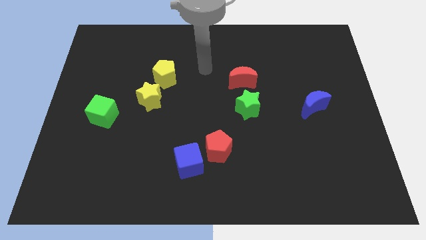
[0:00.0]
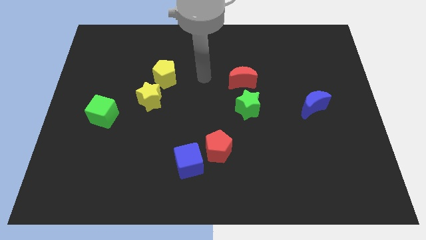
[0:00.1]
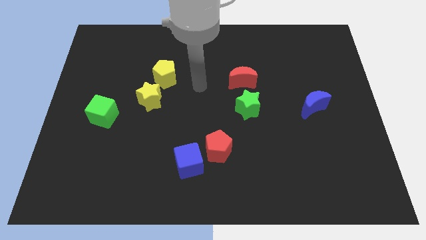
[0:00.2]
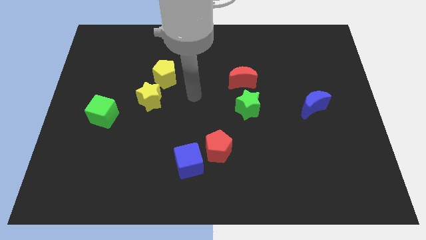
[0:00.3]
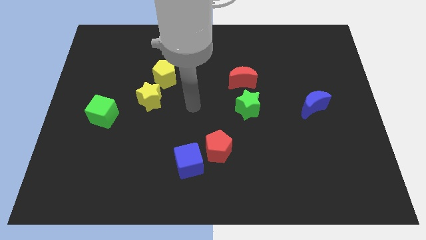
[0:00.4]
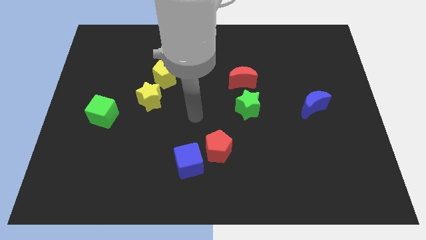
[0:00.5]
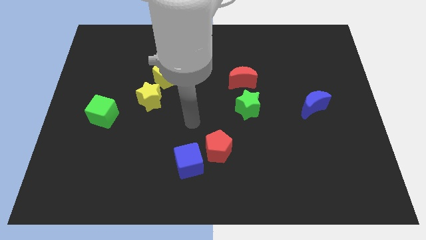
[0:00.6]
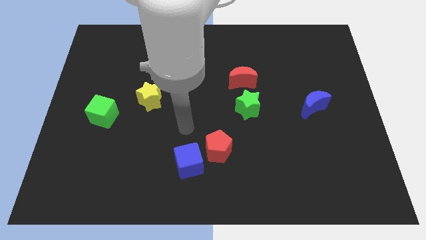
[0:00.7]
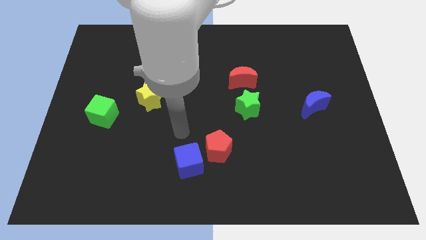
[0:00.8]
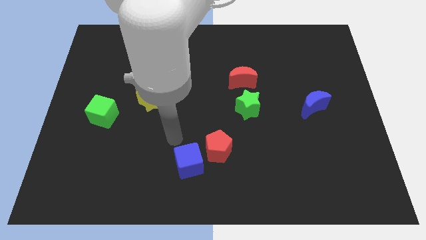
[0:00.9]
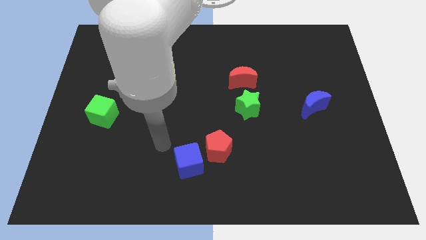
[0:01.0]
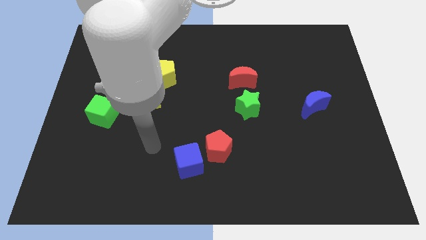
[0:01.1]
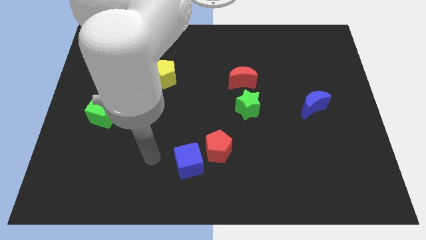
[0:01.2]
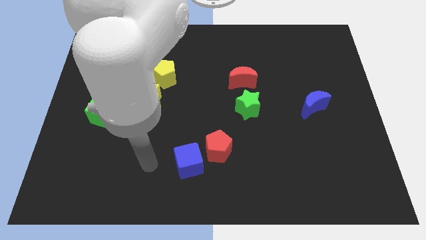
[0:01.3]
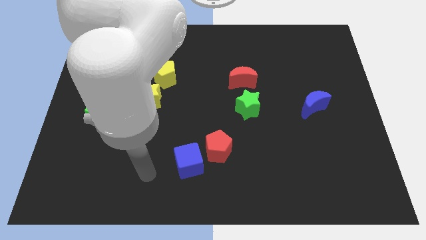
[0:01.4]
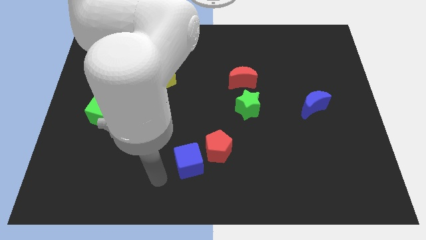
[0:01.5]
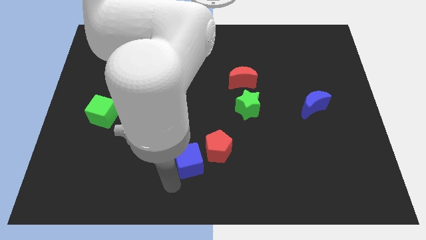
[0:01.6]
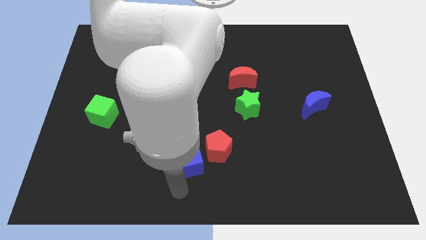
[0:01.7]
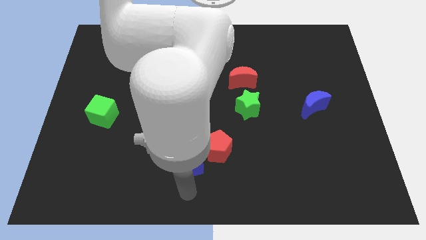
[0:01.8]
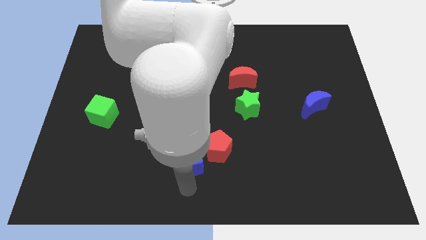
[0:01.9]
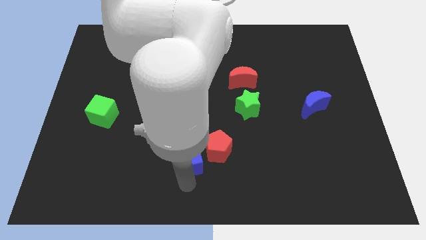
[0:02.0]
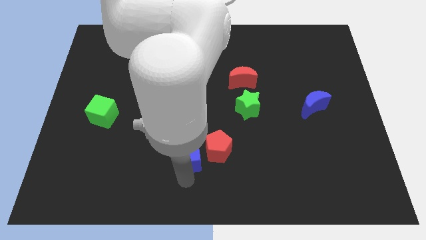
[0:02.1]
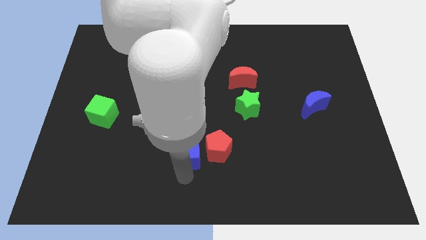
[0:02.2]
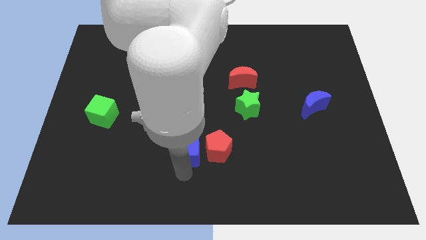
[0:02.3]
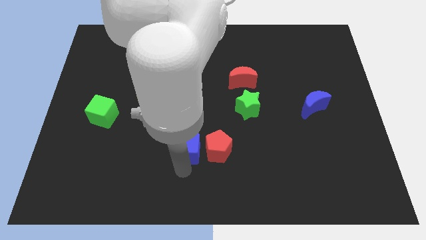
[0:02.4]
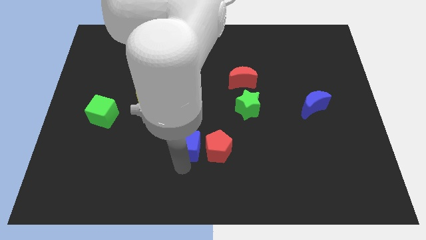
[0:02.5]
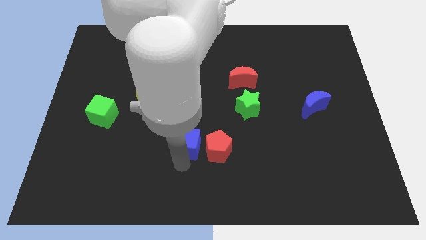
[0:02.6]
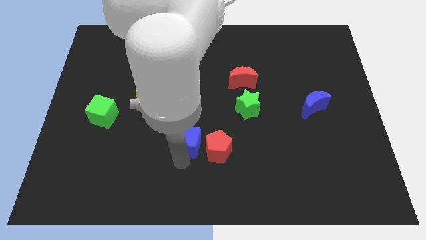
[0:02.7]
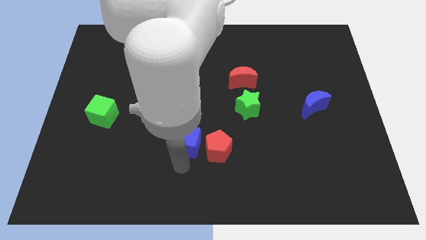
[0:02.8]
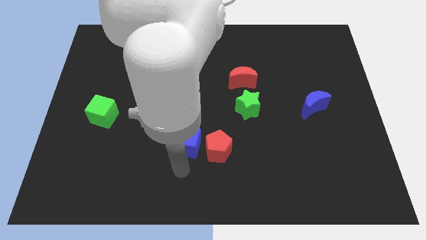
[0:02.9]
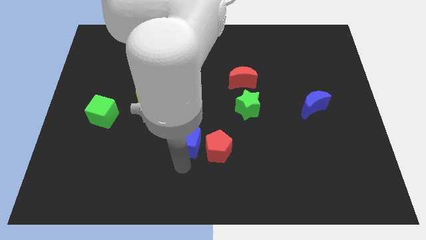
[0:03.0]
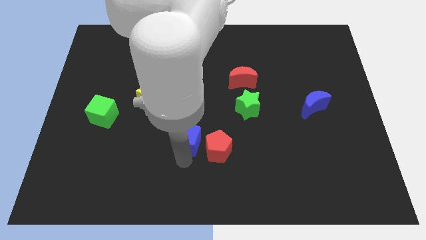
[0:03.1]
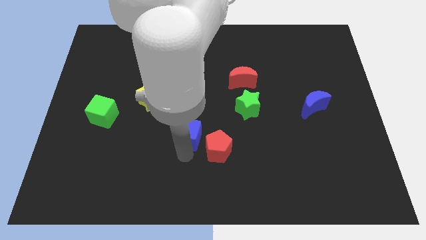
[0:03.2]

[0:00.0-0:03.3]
slightly slide the blue cube up

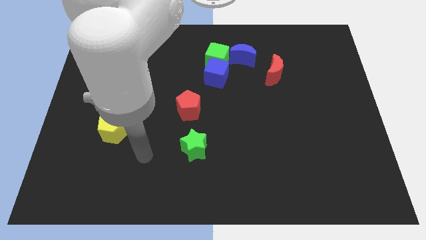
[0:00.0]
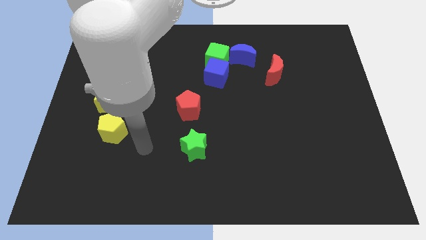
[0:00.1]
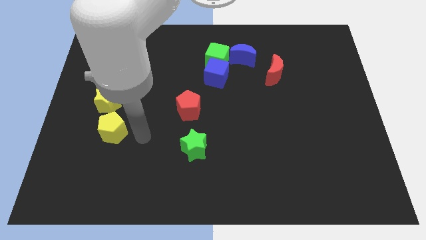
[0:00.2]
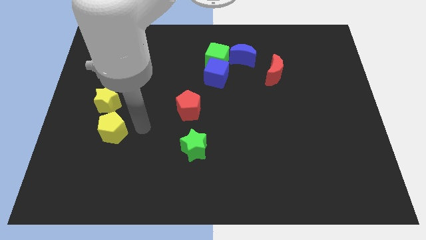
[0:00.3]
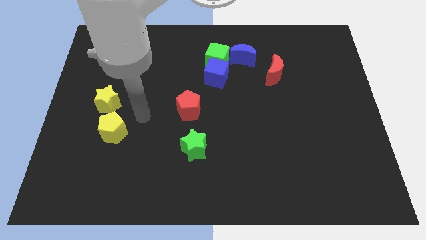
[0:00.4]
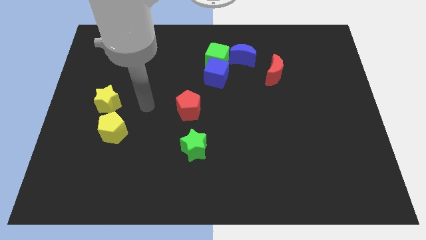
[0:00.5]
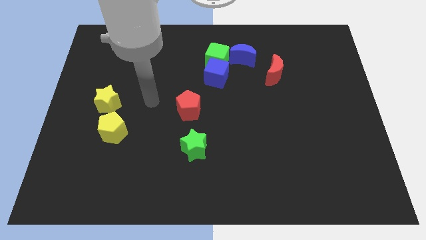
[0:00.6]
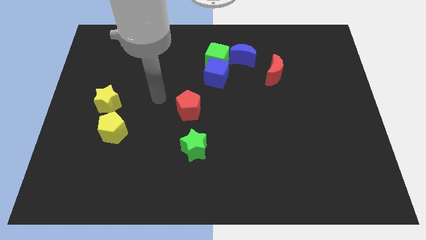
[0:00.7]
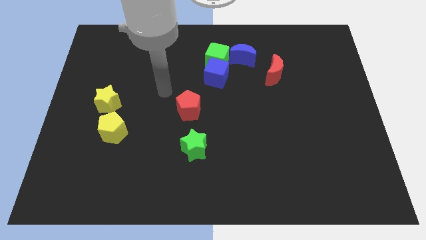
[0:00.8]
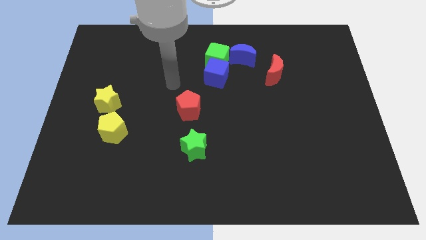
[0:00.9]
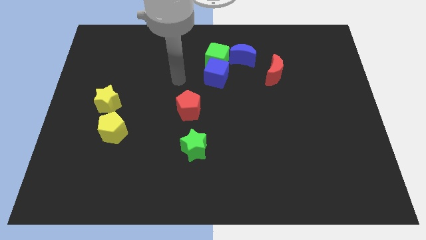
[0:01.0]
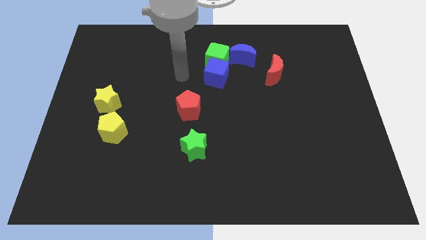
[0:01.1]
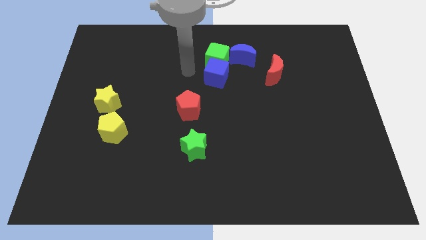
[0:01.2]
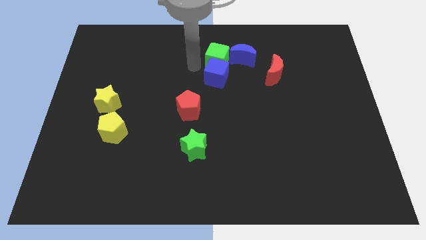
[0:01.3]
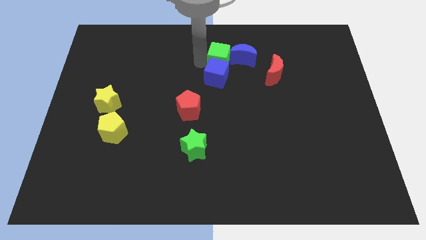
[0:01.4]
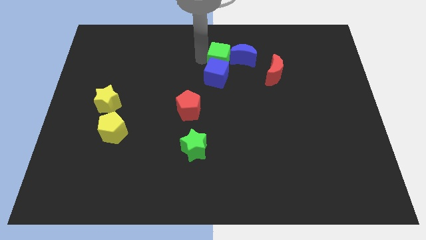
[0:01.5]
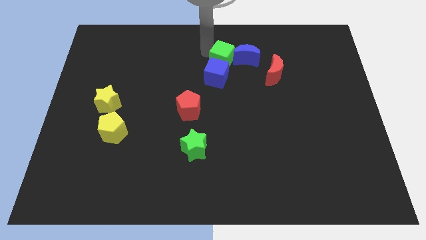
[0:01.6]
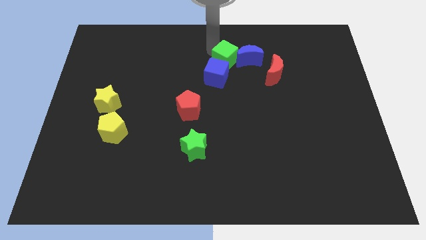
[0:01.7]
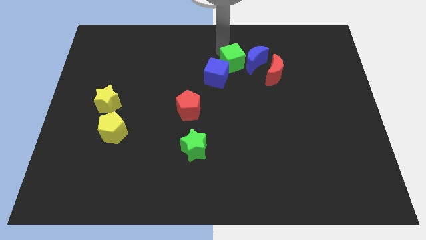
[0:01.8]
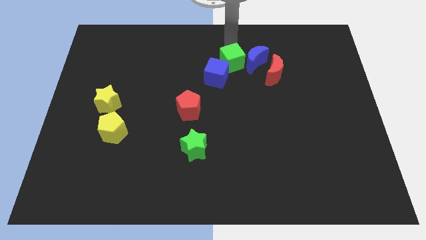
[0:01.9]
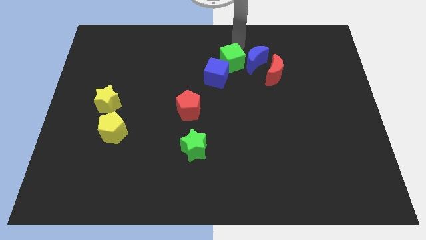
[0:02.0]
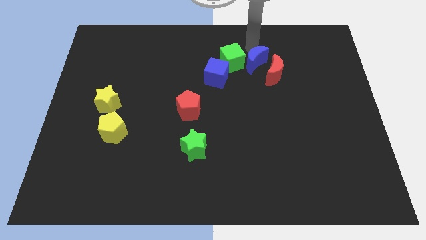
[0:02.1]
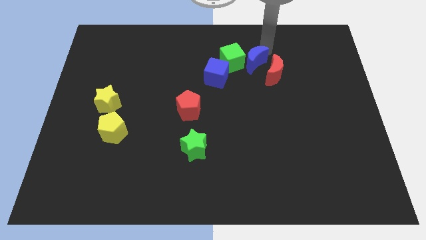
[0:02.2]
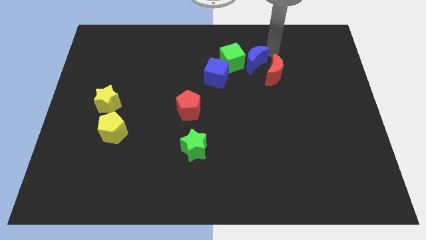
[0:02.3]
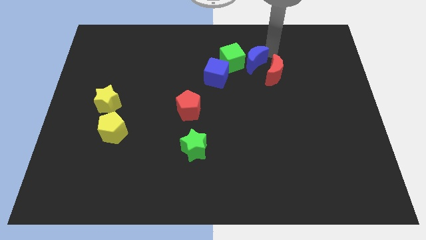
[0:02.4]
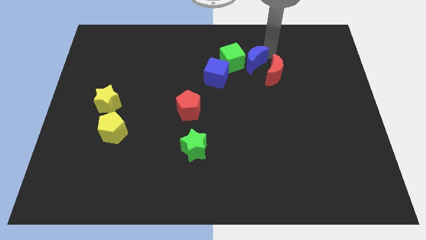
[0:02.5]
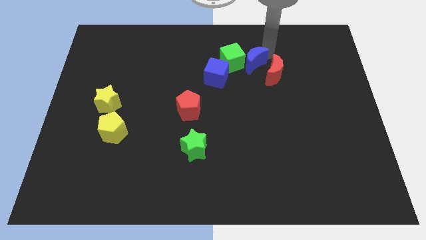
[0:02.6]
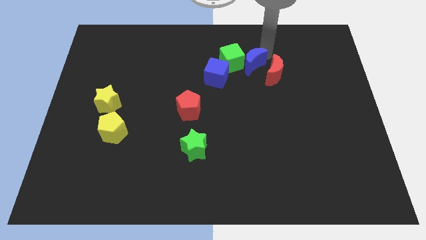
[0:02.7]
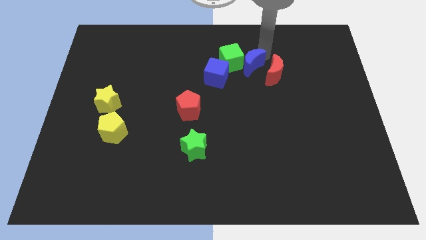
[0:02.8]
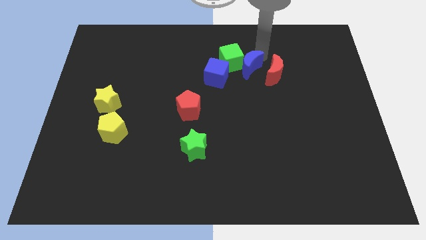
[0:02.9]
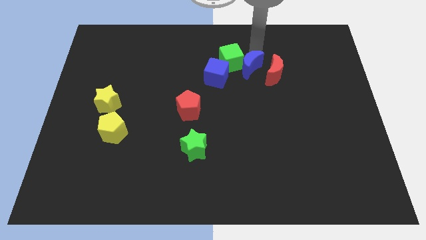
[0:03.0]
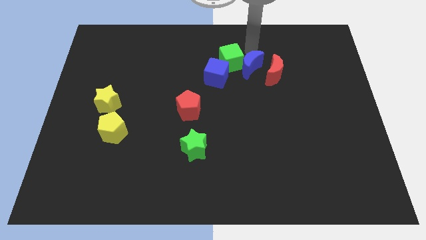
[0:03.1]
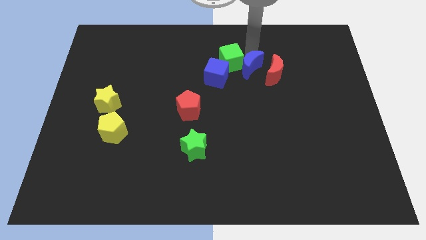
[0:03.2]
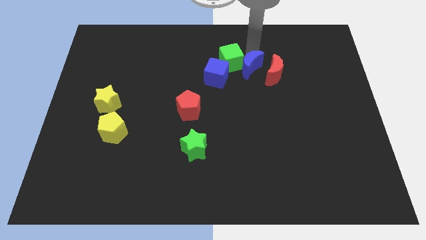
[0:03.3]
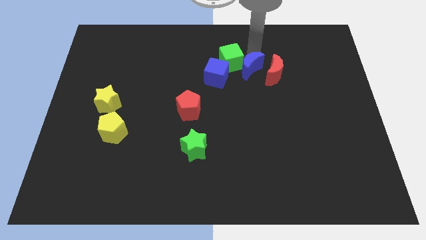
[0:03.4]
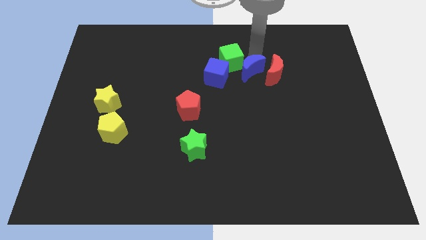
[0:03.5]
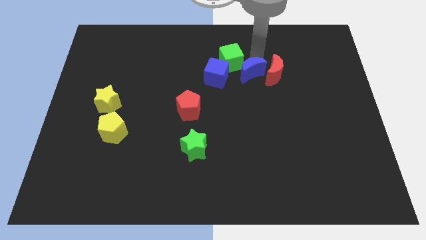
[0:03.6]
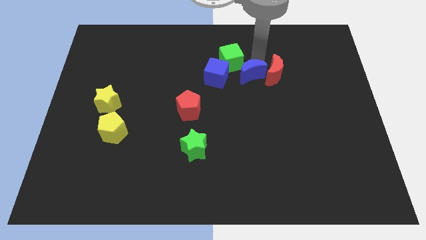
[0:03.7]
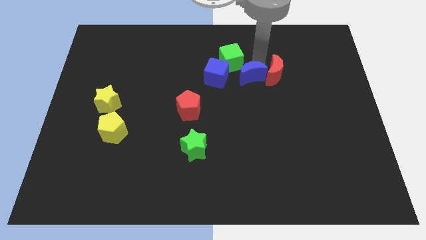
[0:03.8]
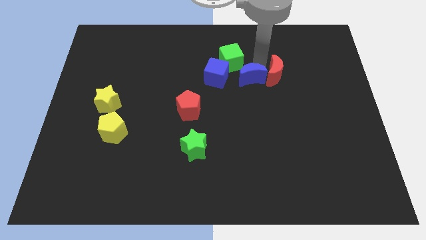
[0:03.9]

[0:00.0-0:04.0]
slightly push the blue moon downwards

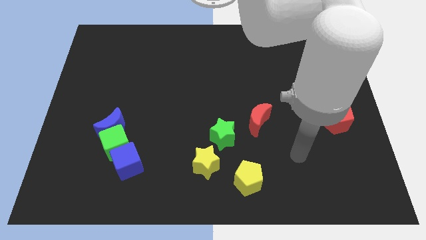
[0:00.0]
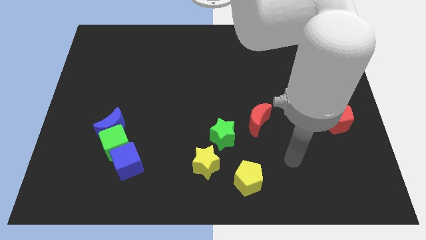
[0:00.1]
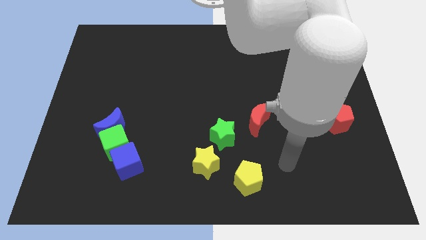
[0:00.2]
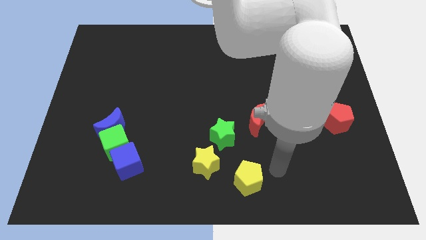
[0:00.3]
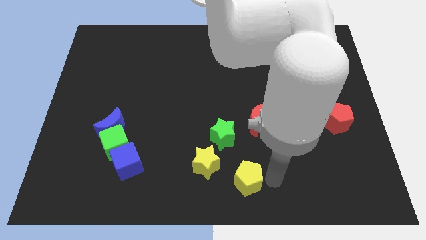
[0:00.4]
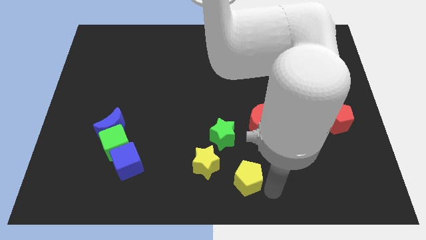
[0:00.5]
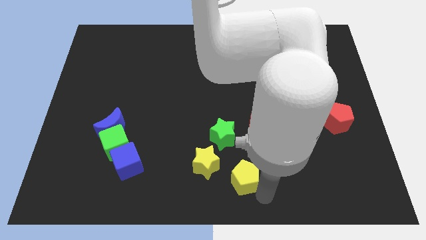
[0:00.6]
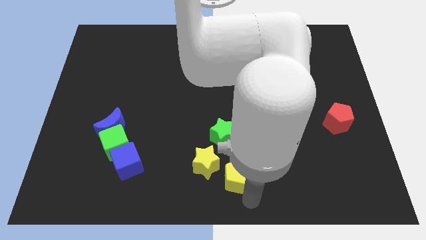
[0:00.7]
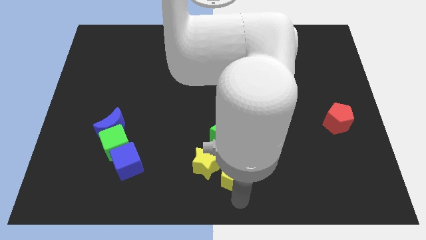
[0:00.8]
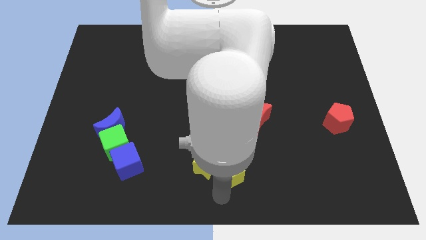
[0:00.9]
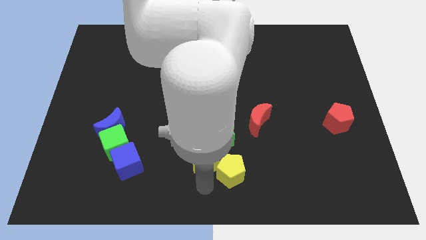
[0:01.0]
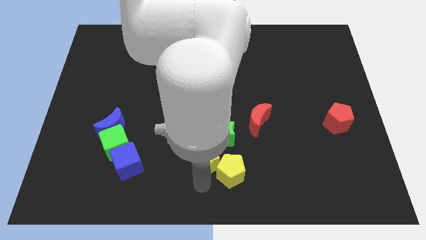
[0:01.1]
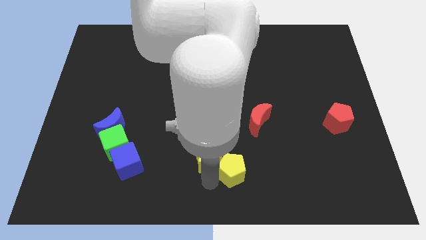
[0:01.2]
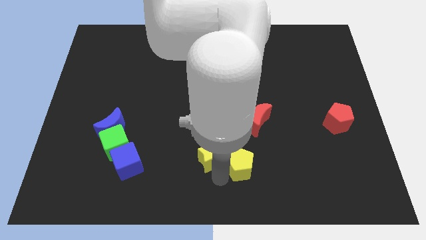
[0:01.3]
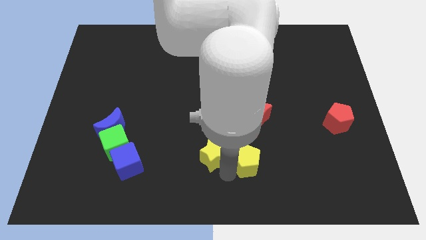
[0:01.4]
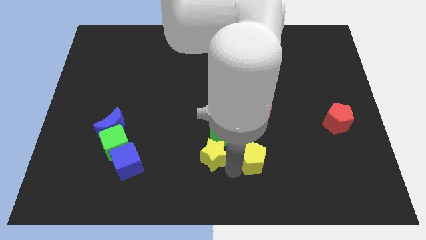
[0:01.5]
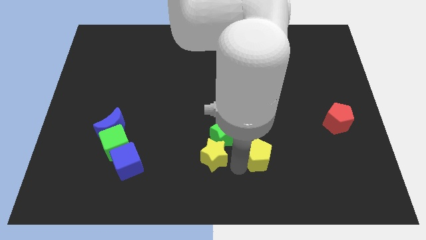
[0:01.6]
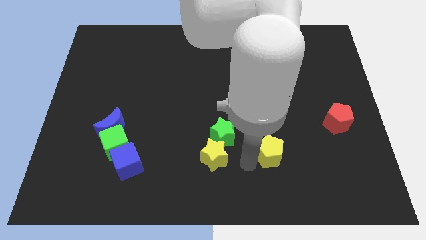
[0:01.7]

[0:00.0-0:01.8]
push the yellow pentagon a bit up and then right
